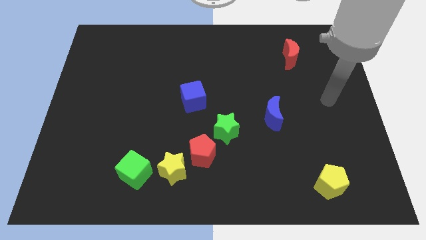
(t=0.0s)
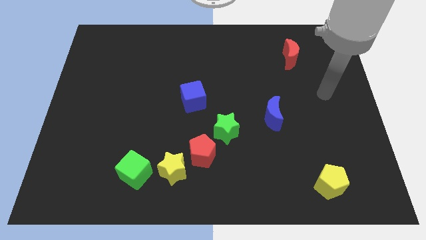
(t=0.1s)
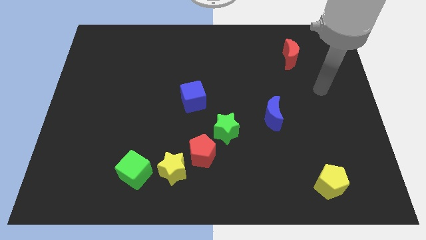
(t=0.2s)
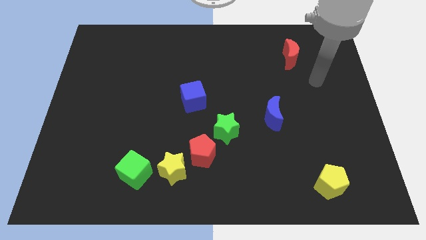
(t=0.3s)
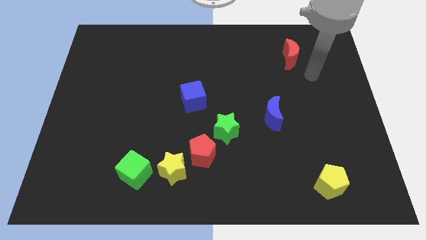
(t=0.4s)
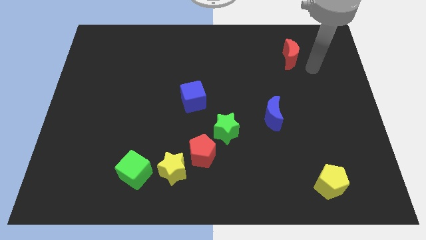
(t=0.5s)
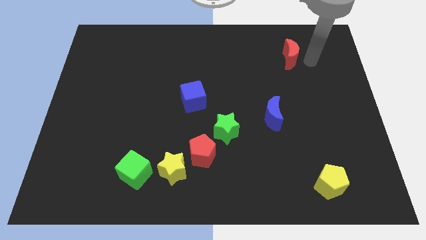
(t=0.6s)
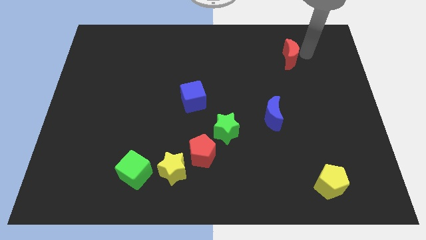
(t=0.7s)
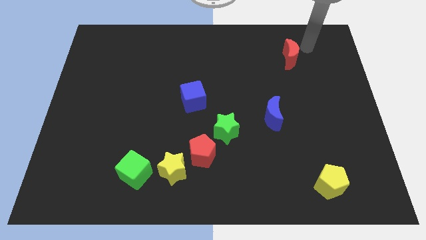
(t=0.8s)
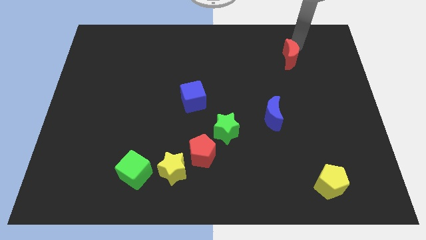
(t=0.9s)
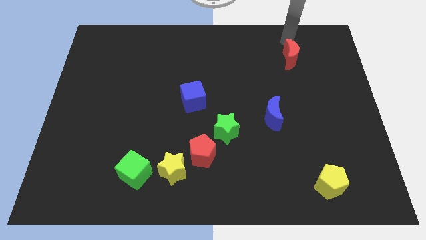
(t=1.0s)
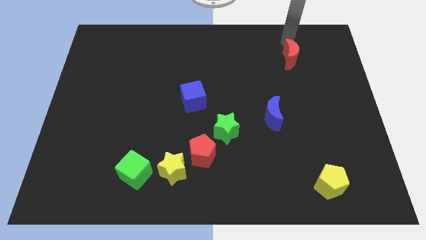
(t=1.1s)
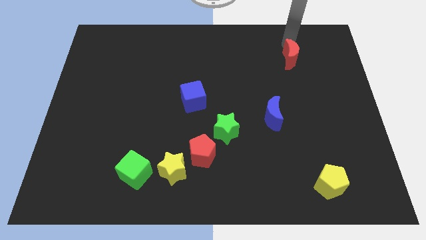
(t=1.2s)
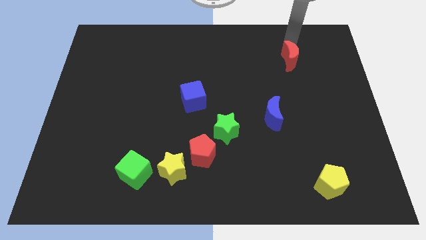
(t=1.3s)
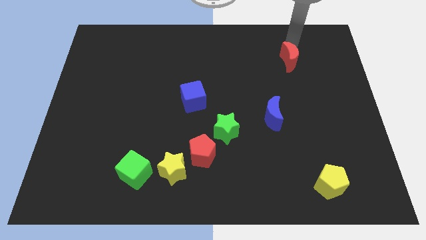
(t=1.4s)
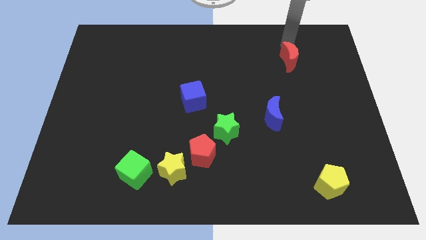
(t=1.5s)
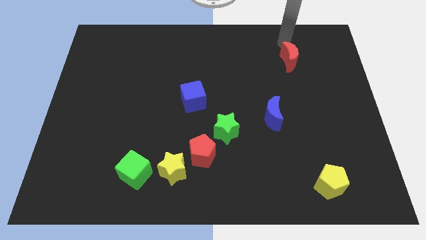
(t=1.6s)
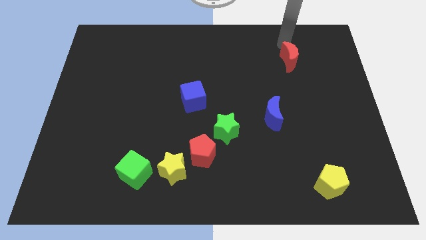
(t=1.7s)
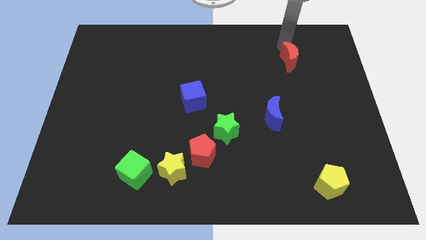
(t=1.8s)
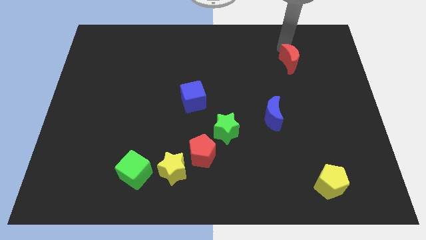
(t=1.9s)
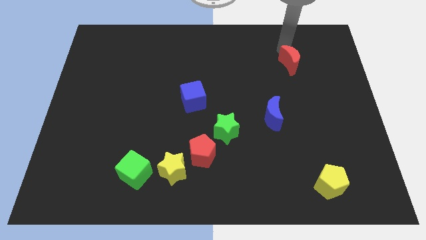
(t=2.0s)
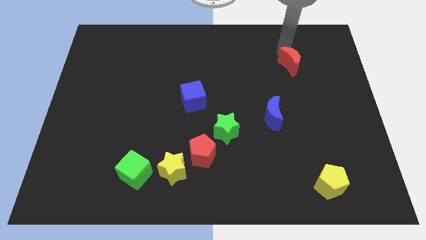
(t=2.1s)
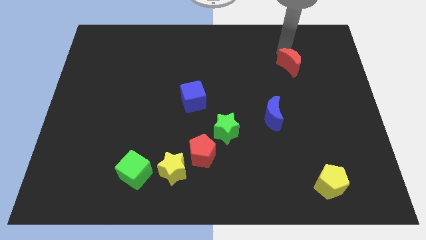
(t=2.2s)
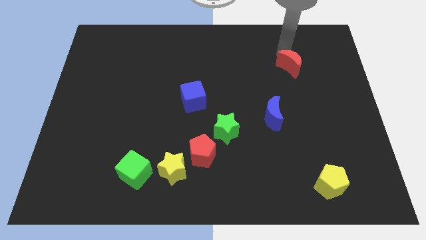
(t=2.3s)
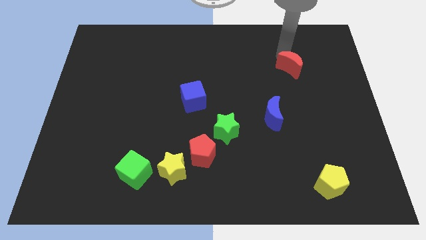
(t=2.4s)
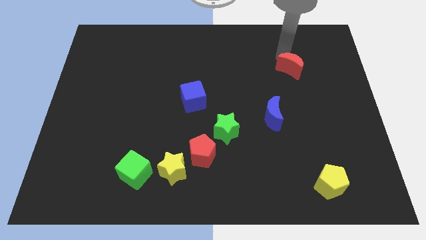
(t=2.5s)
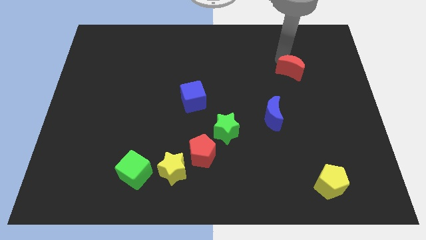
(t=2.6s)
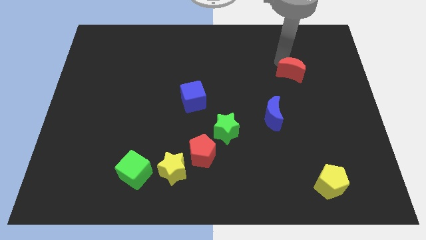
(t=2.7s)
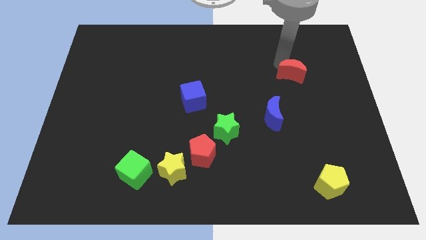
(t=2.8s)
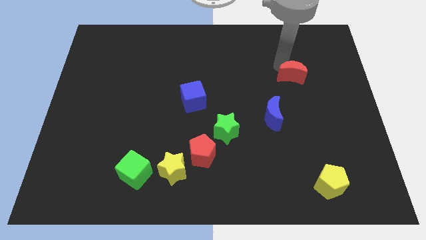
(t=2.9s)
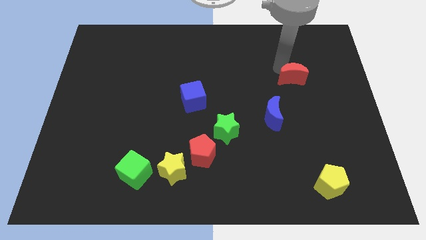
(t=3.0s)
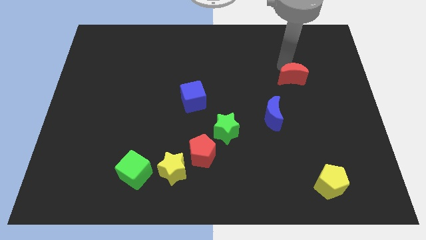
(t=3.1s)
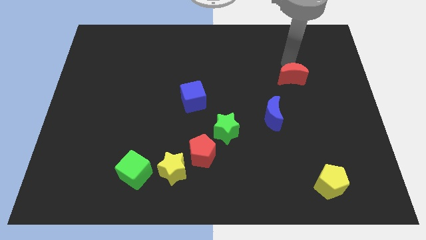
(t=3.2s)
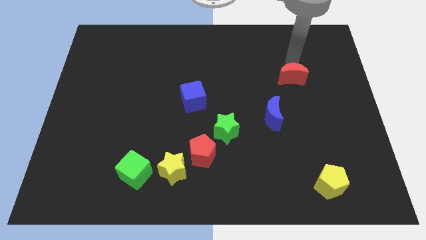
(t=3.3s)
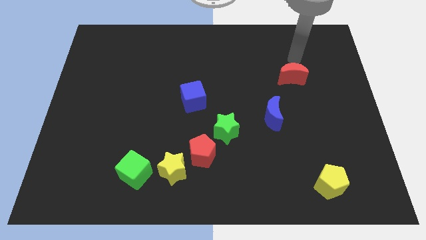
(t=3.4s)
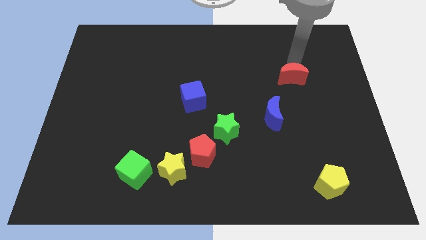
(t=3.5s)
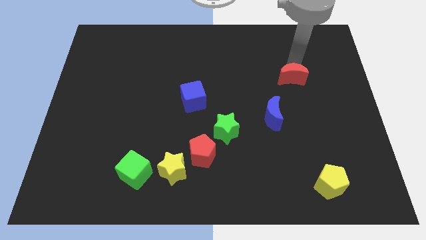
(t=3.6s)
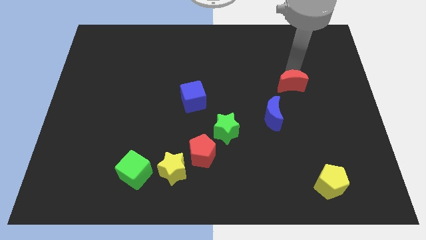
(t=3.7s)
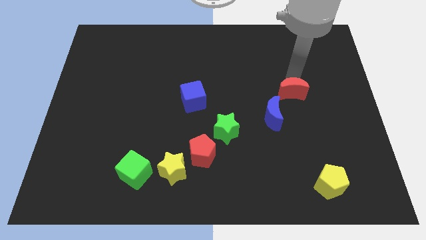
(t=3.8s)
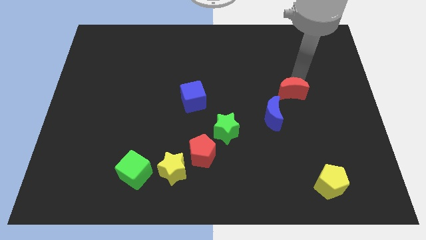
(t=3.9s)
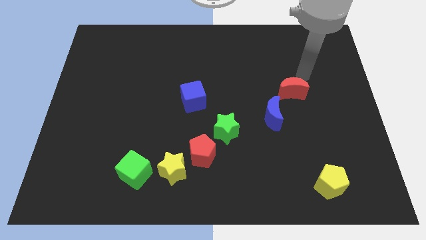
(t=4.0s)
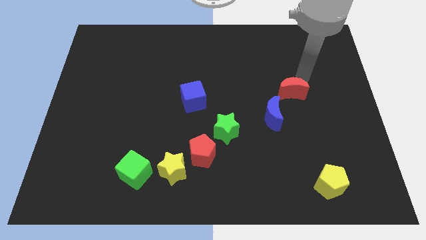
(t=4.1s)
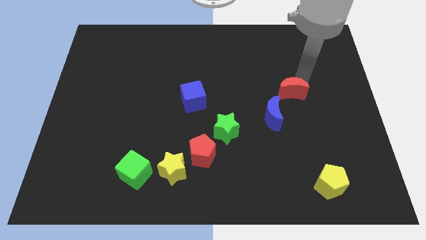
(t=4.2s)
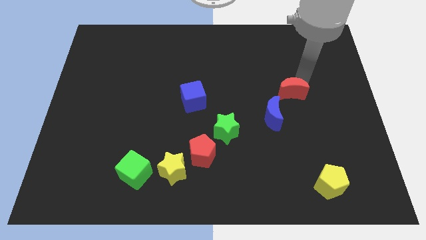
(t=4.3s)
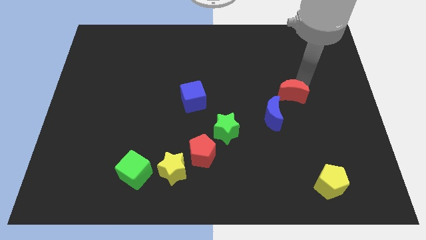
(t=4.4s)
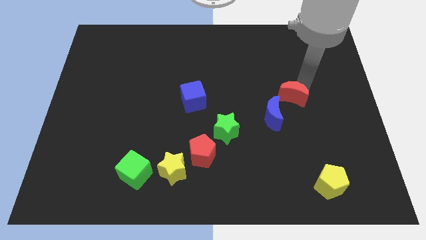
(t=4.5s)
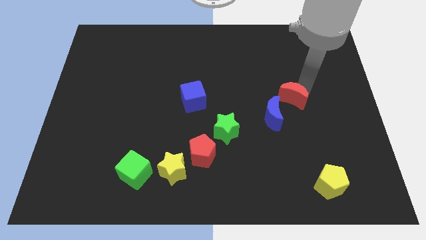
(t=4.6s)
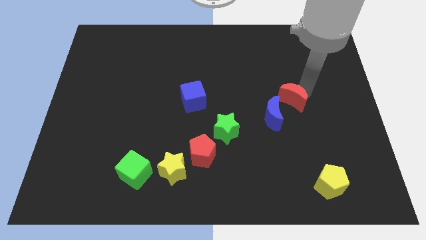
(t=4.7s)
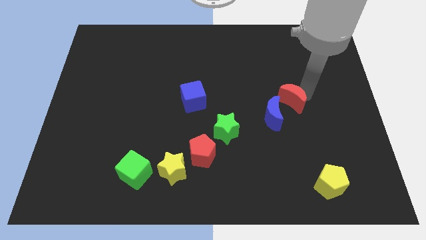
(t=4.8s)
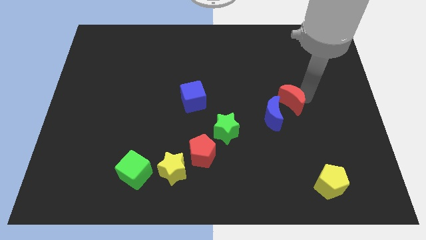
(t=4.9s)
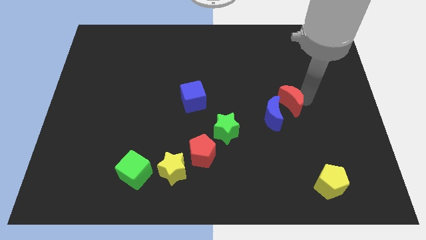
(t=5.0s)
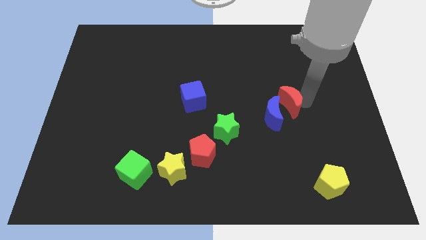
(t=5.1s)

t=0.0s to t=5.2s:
put the red moon next to the blue moon

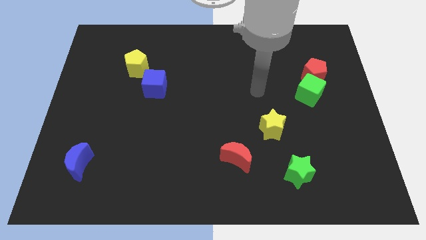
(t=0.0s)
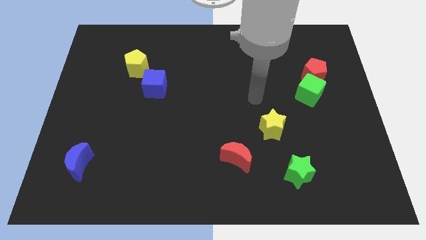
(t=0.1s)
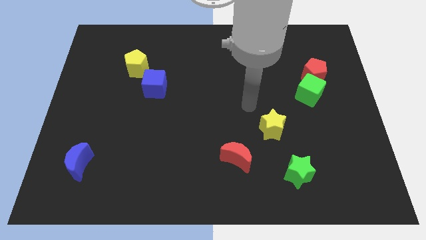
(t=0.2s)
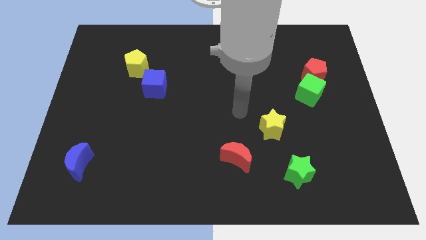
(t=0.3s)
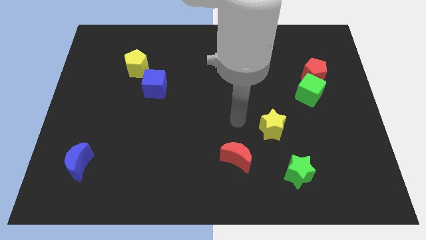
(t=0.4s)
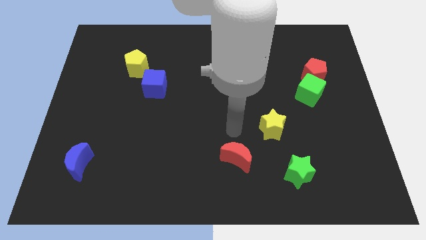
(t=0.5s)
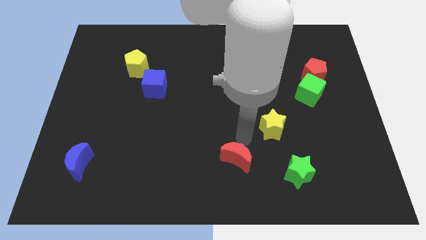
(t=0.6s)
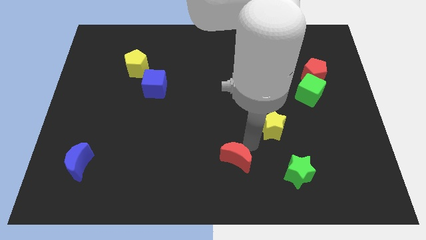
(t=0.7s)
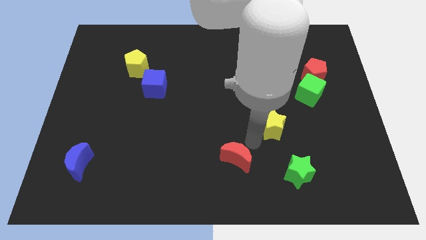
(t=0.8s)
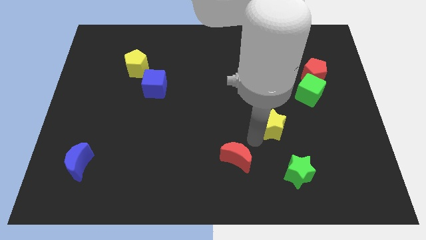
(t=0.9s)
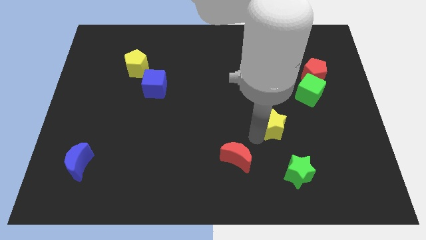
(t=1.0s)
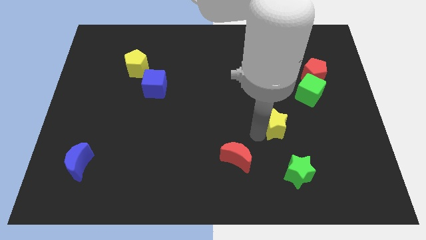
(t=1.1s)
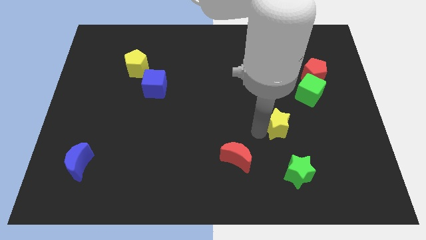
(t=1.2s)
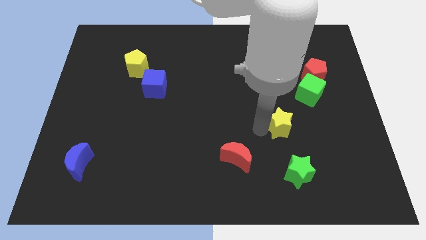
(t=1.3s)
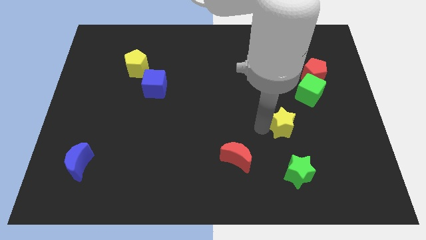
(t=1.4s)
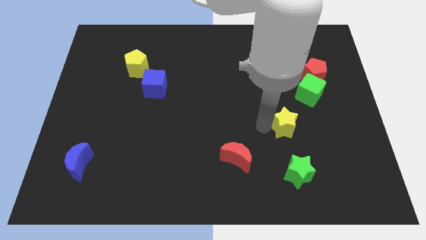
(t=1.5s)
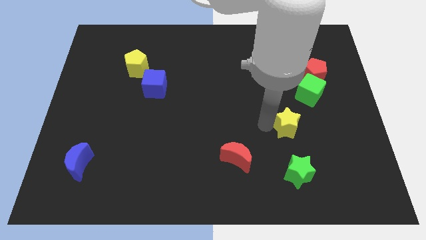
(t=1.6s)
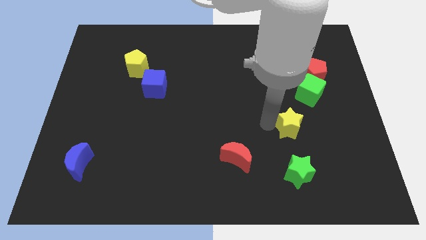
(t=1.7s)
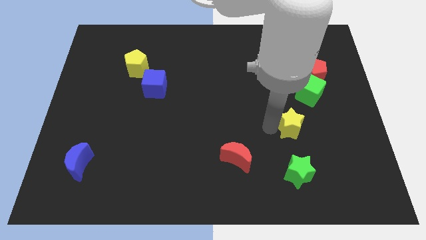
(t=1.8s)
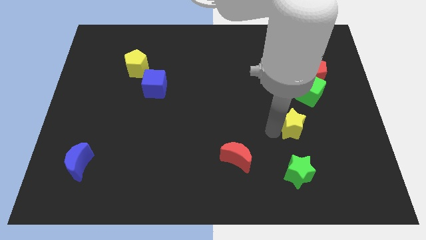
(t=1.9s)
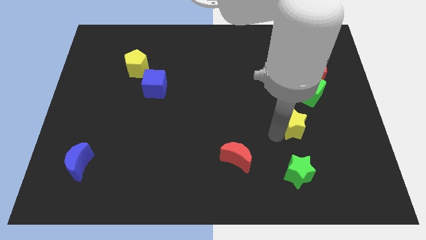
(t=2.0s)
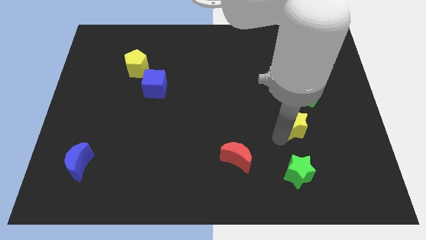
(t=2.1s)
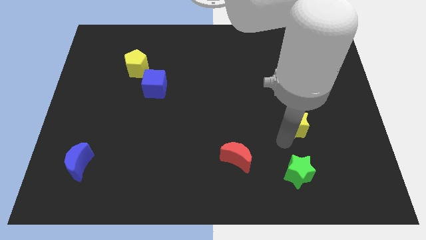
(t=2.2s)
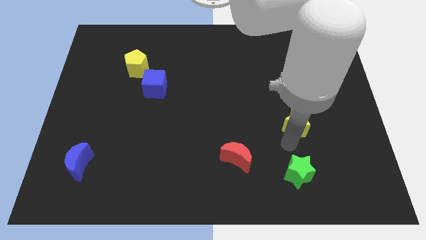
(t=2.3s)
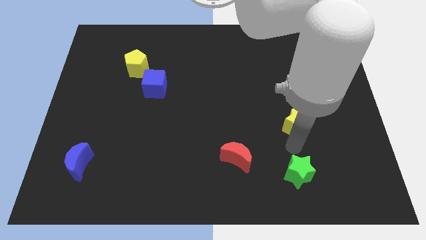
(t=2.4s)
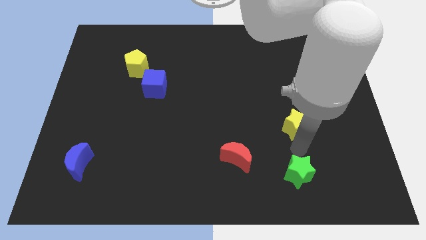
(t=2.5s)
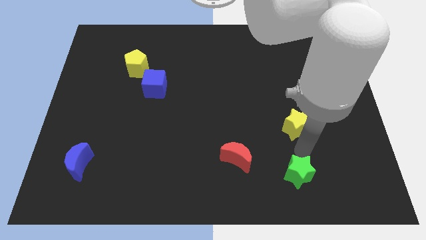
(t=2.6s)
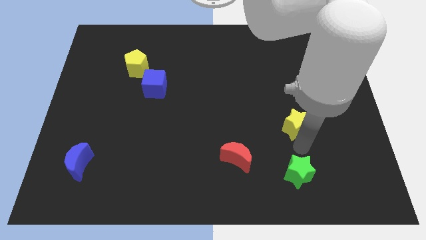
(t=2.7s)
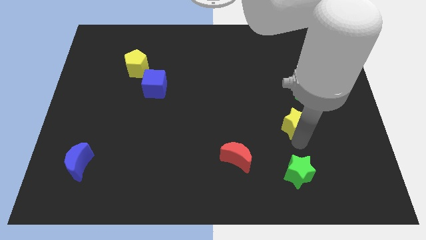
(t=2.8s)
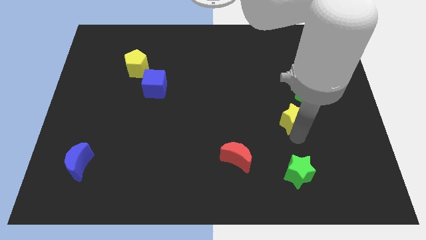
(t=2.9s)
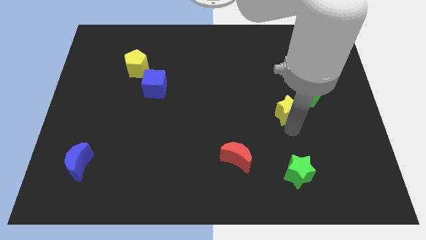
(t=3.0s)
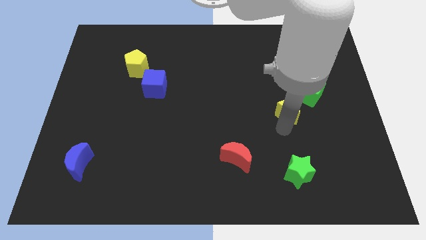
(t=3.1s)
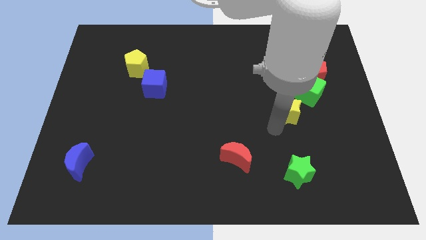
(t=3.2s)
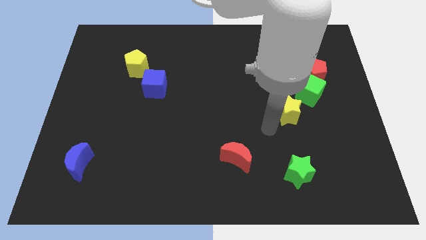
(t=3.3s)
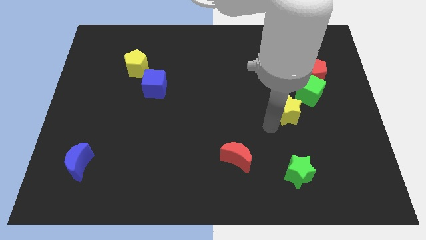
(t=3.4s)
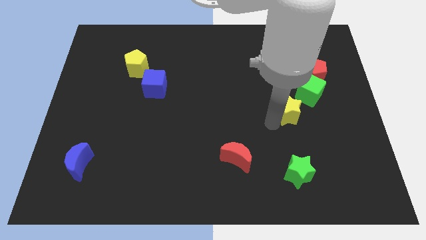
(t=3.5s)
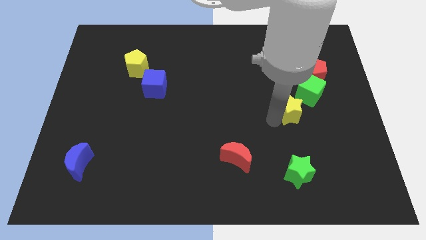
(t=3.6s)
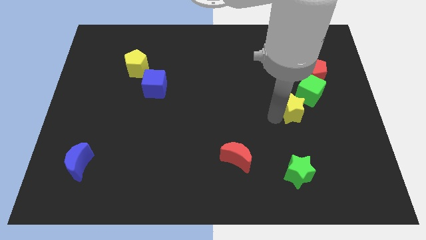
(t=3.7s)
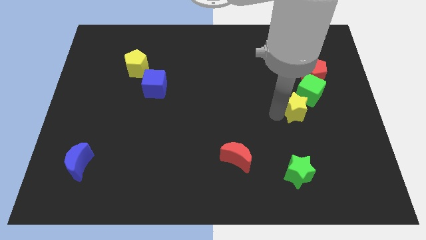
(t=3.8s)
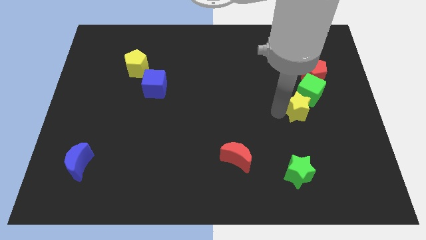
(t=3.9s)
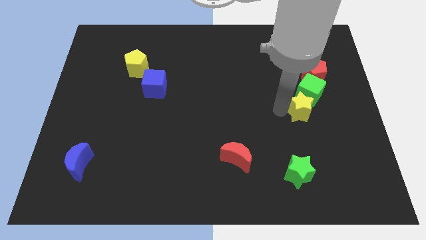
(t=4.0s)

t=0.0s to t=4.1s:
put the yellow star close to the green cube
